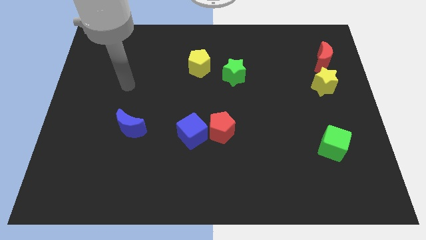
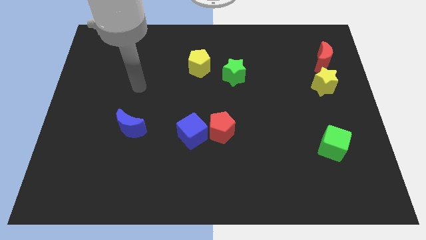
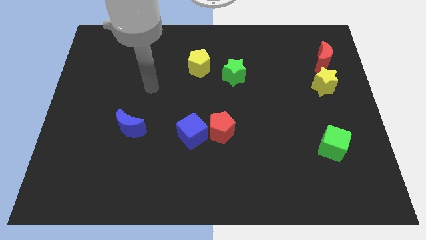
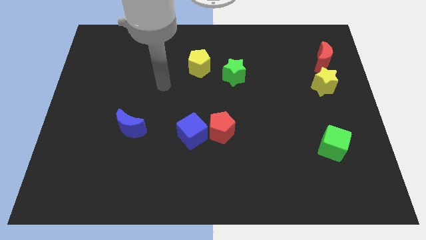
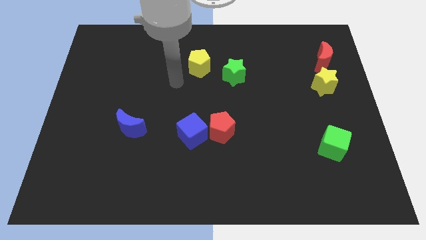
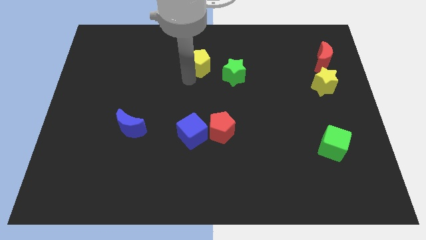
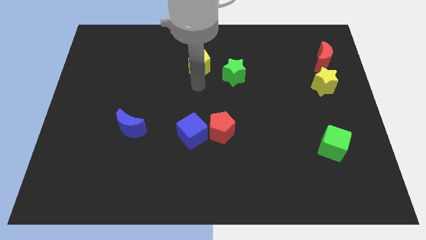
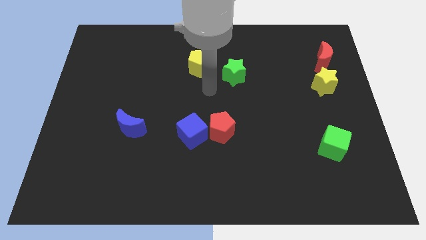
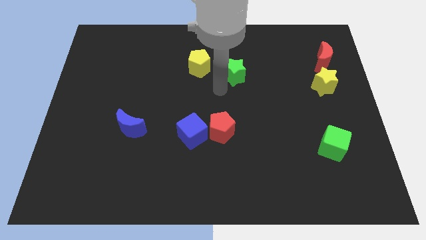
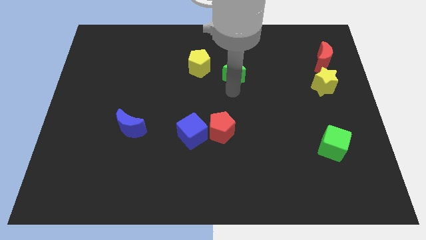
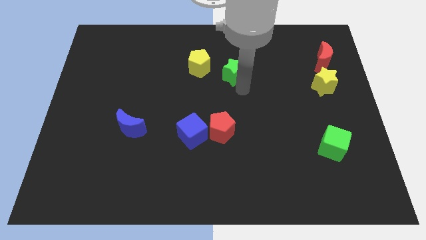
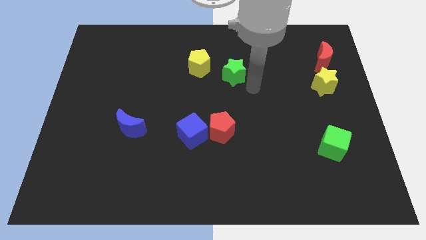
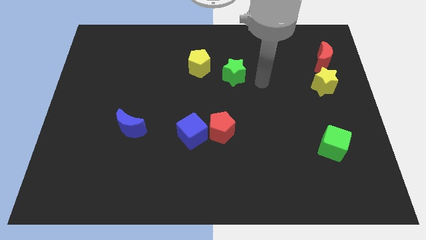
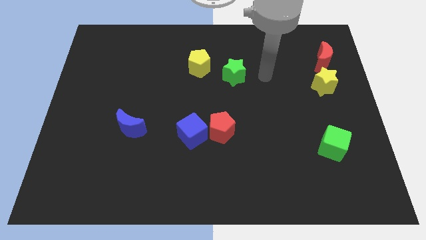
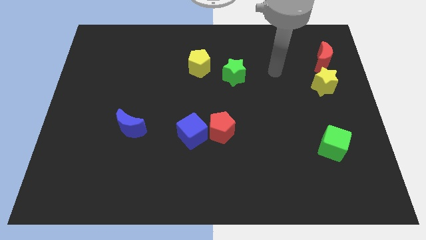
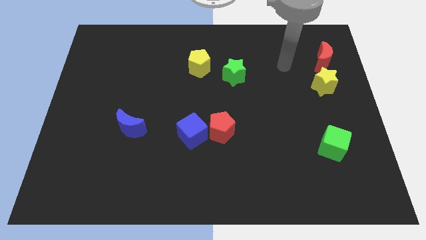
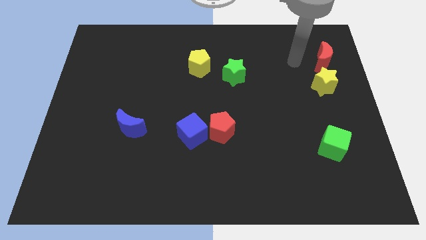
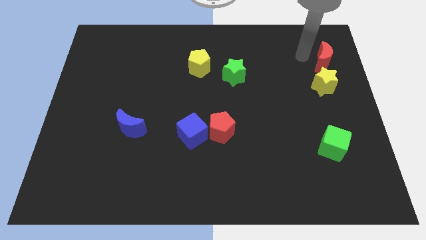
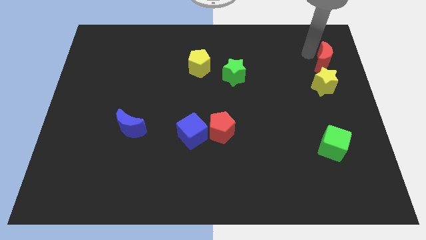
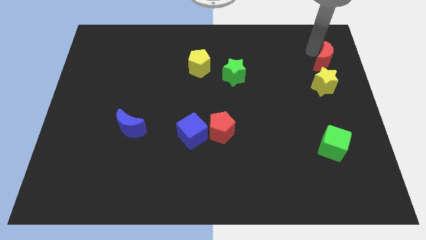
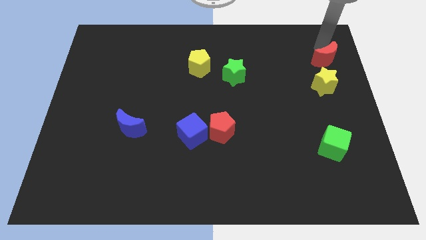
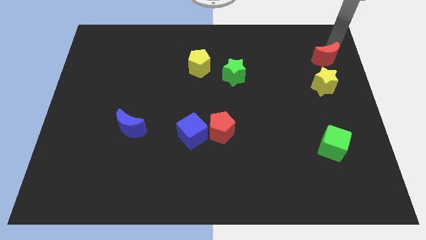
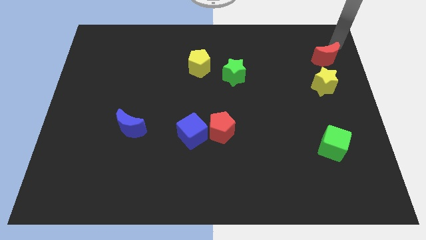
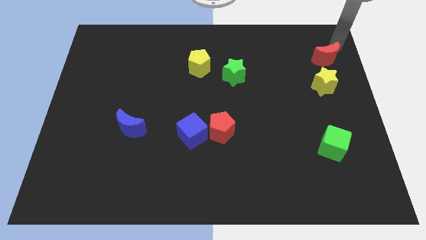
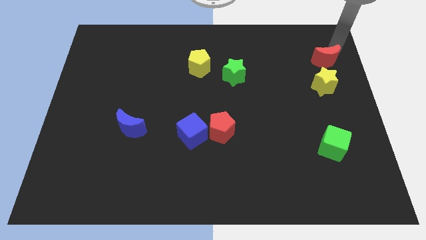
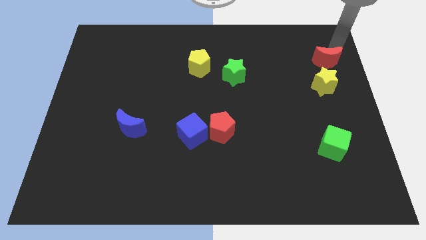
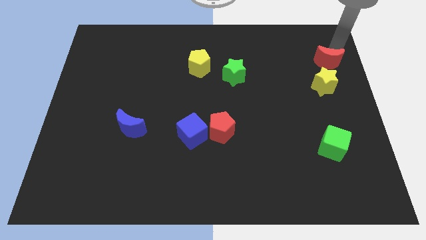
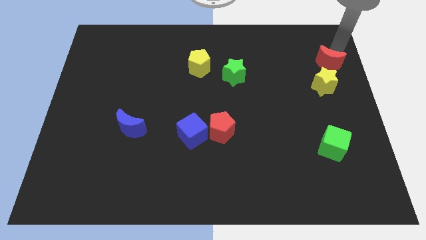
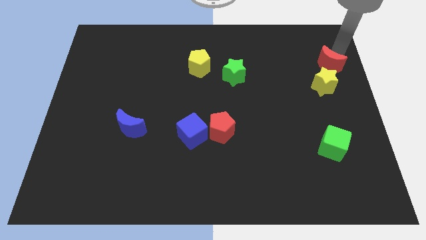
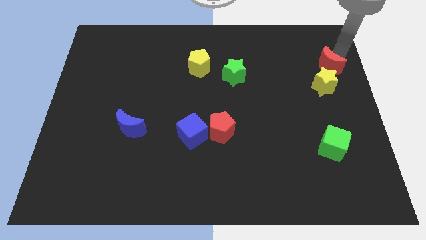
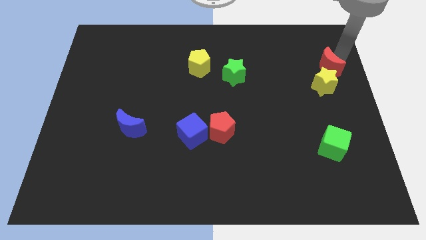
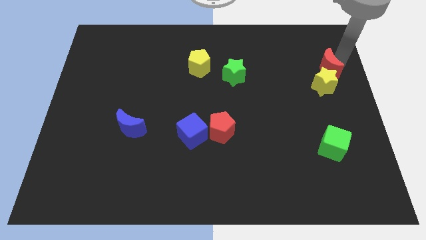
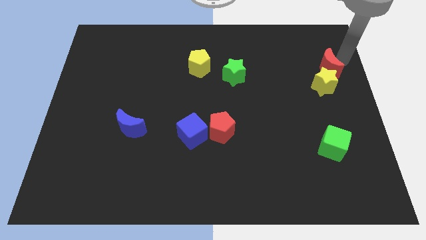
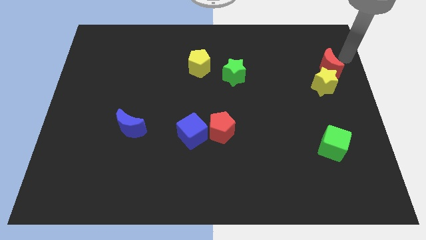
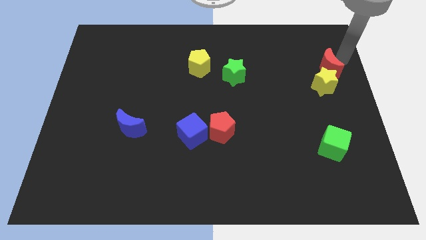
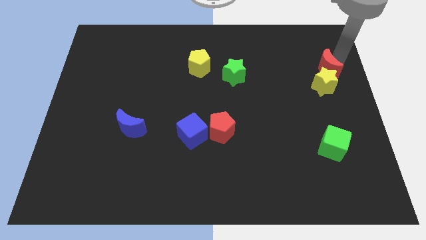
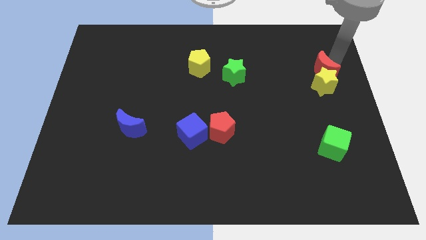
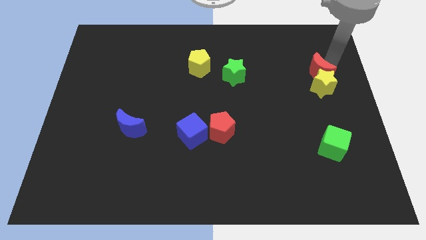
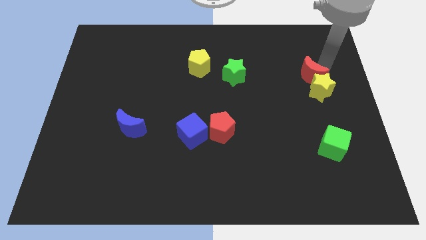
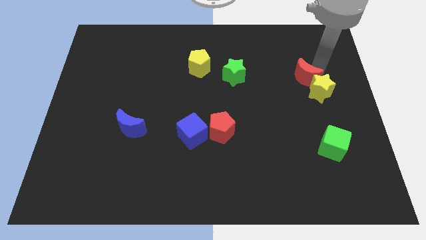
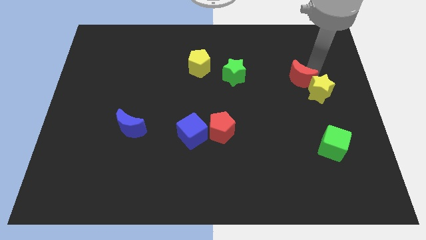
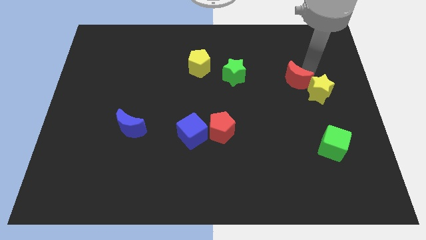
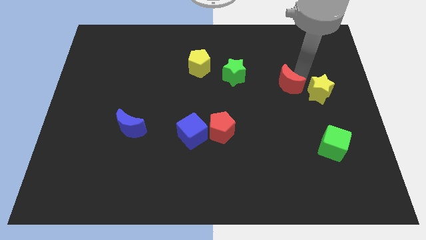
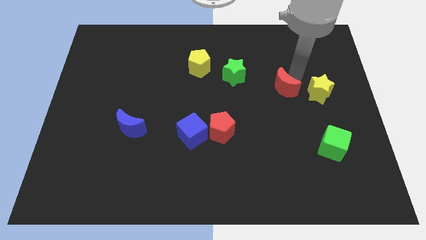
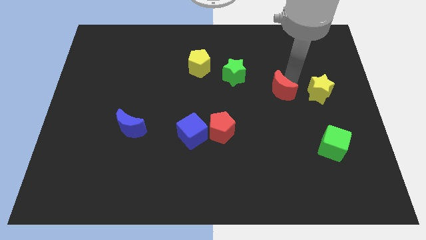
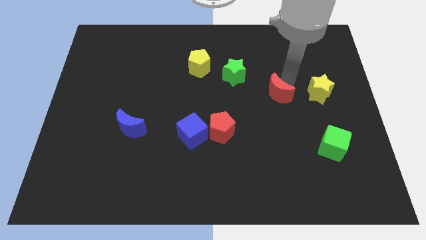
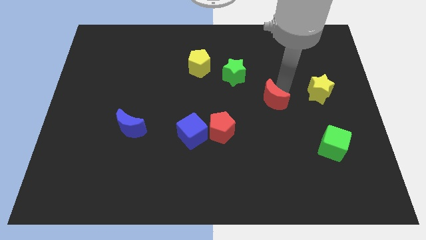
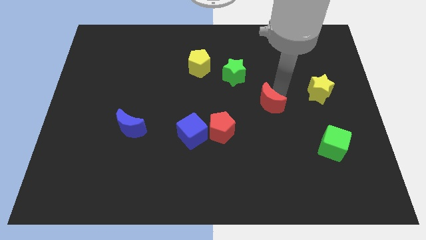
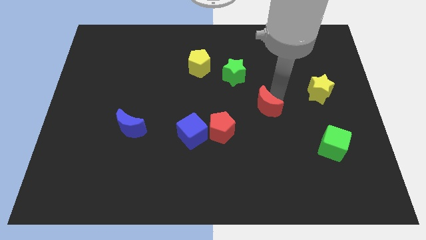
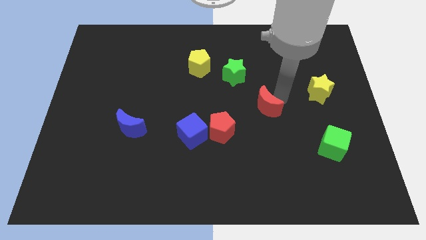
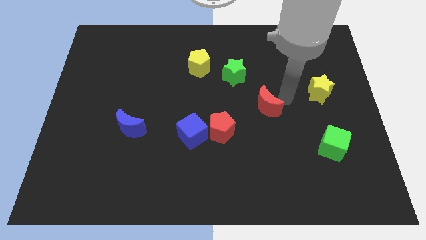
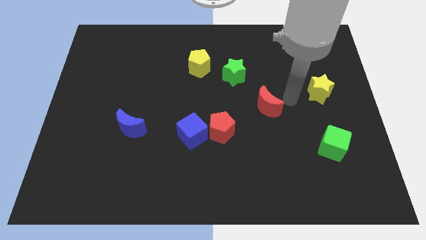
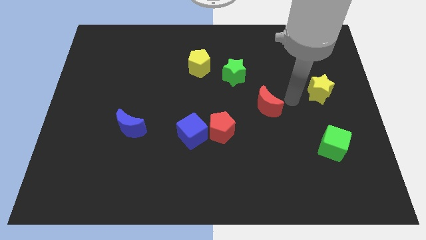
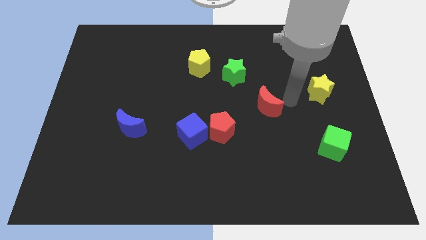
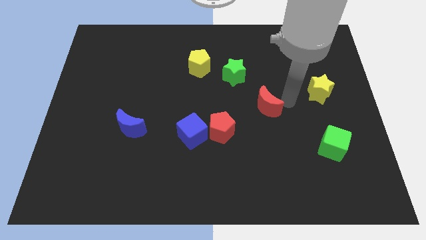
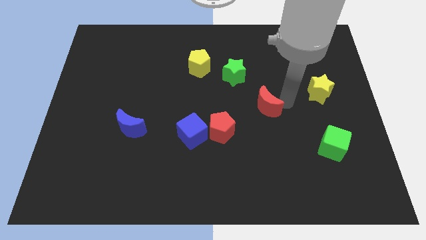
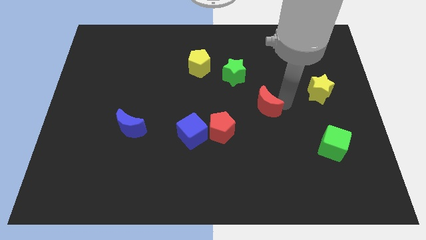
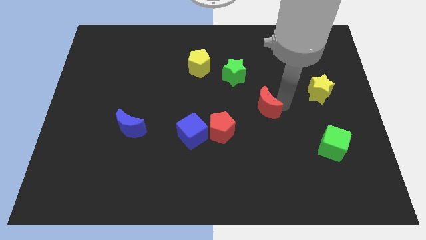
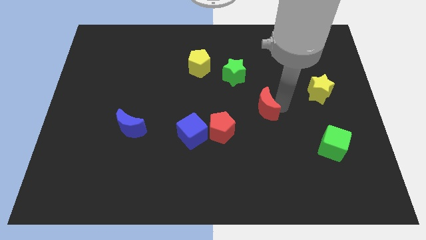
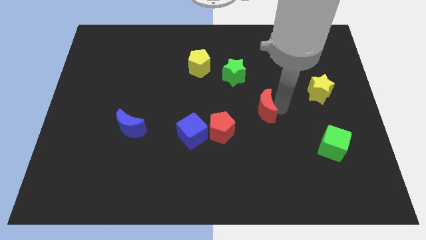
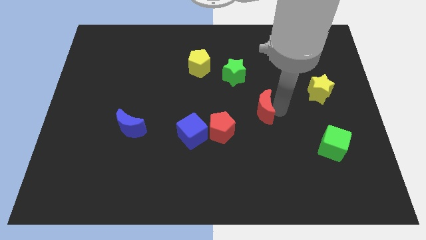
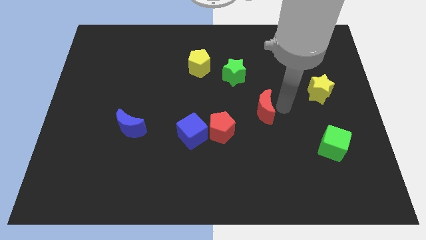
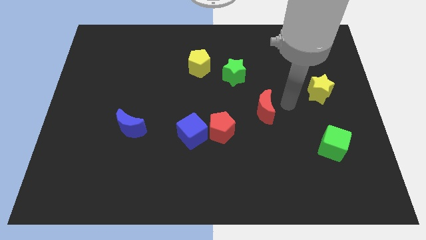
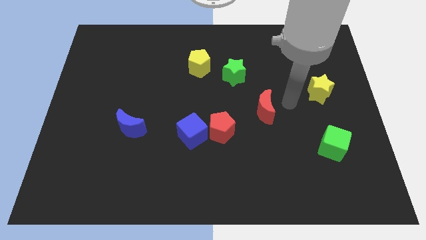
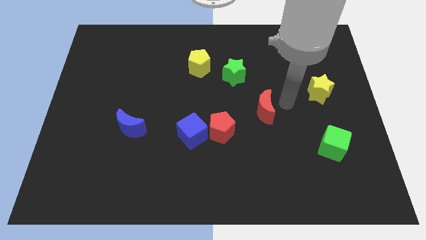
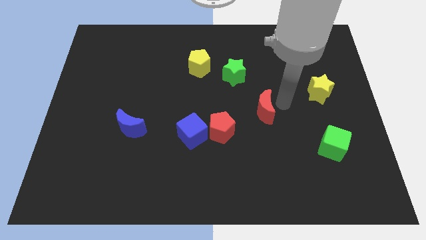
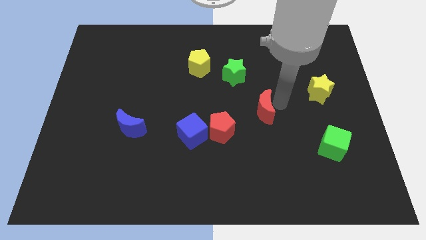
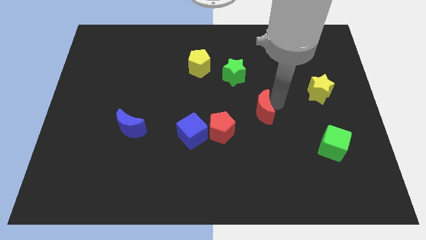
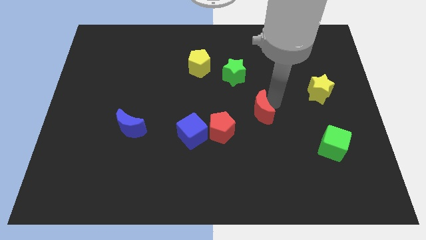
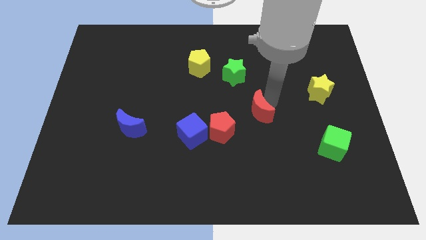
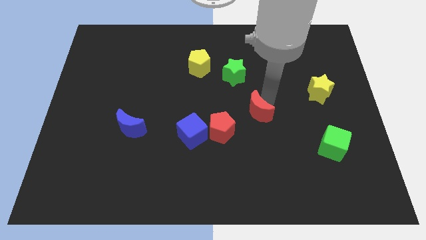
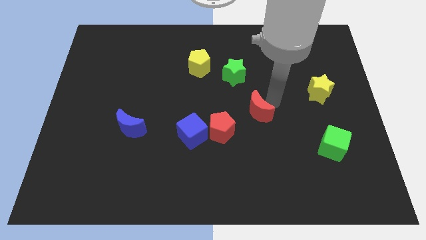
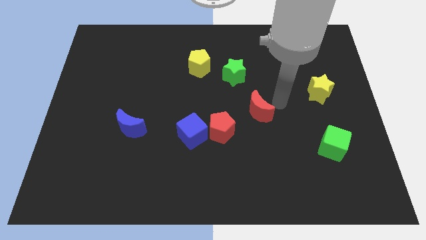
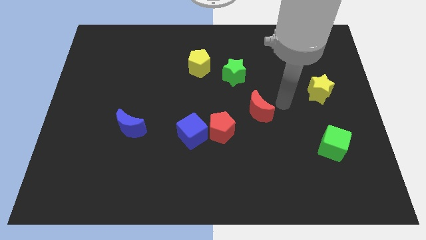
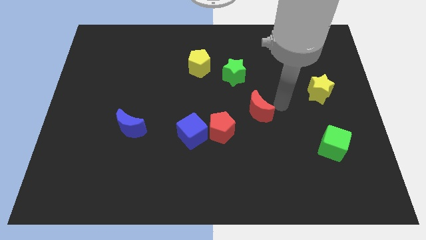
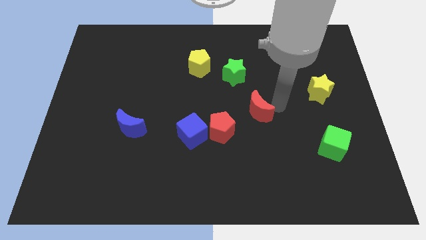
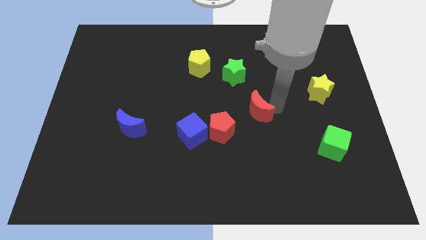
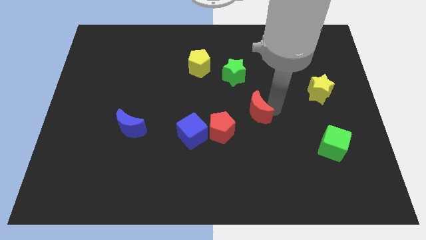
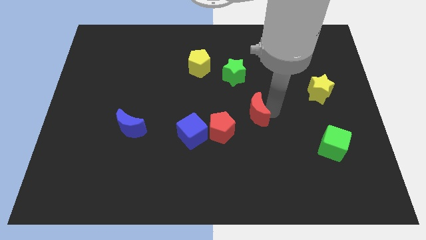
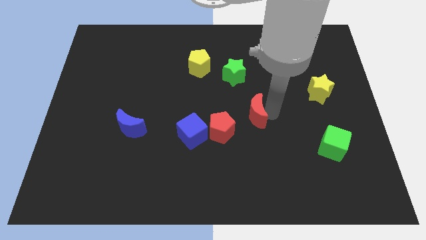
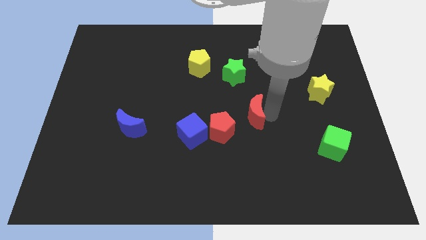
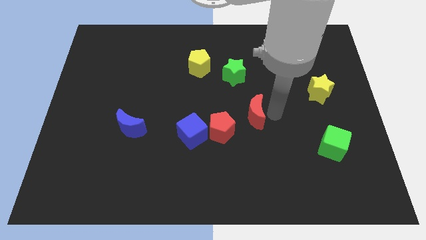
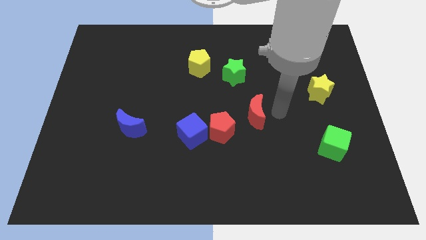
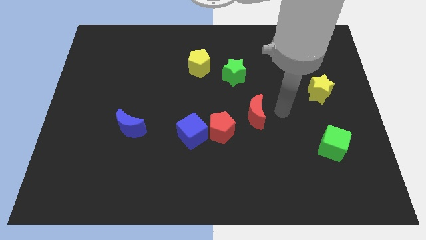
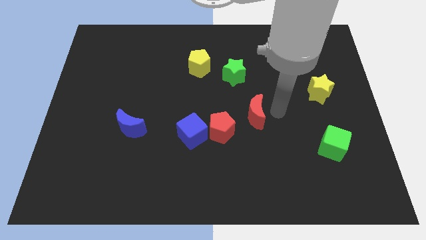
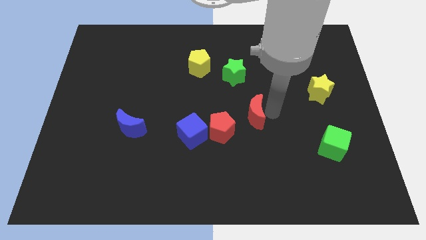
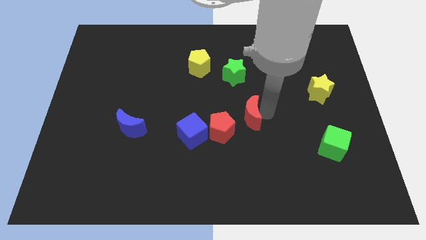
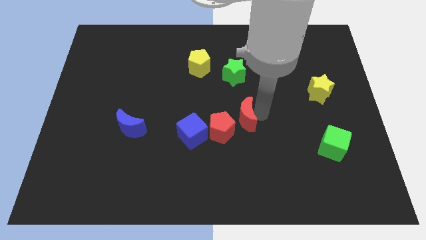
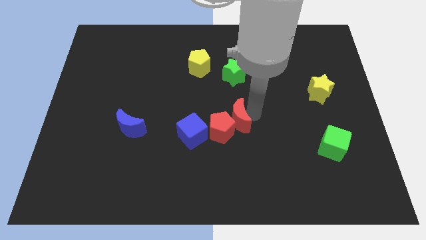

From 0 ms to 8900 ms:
move the red moon to the red pentagon
